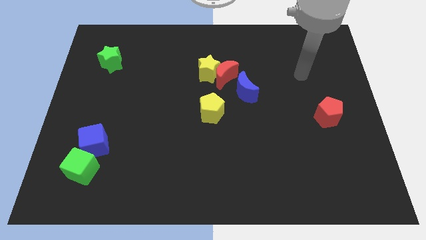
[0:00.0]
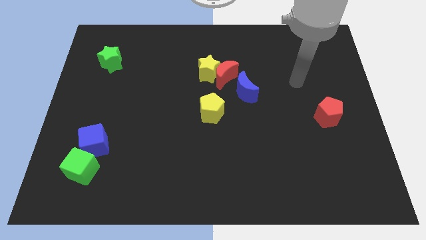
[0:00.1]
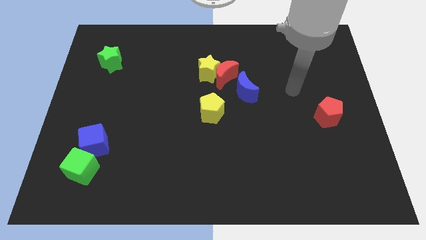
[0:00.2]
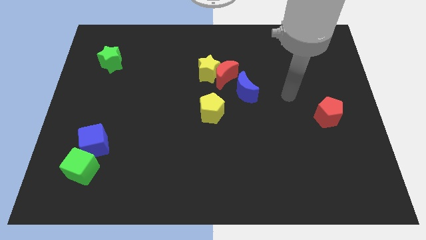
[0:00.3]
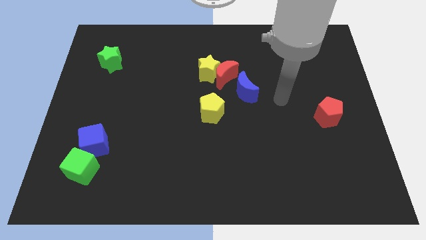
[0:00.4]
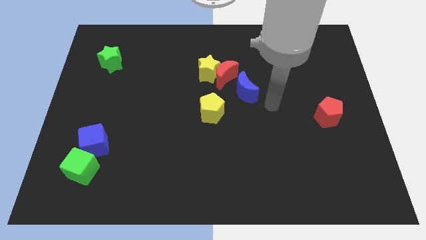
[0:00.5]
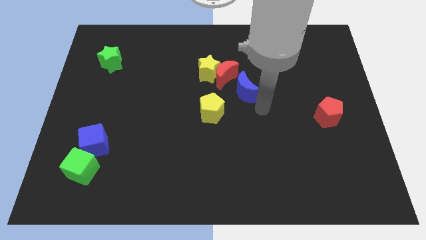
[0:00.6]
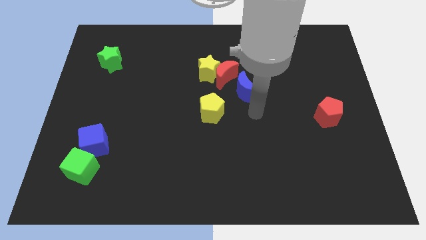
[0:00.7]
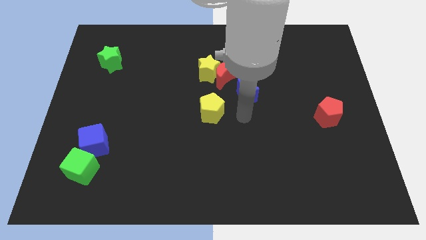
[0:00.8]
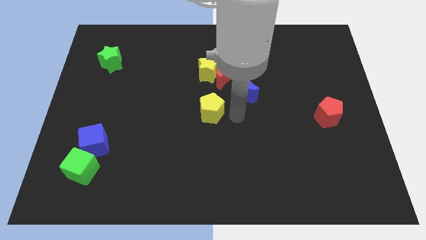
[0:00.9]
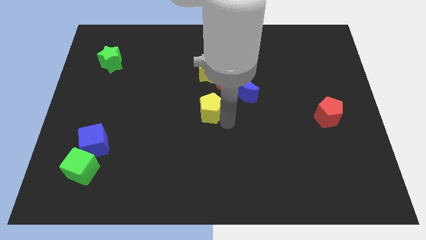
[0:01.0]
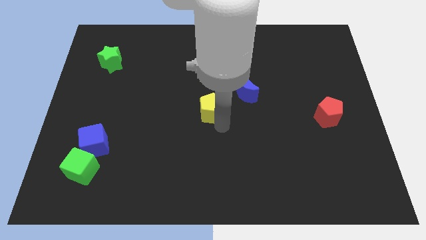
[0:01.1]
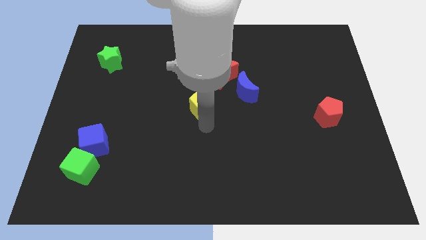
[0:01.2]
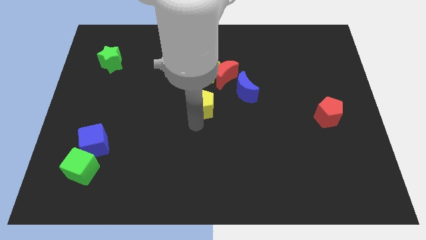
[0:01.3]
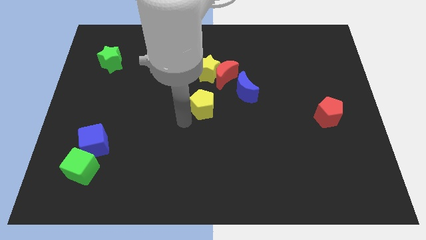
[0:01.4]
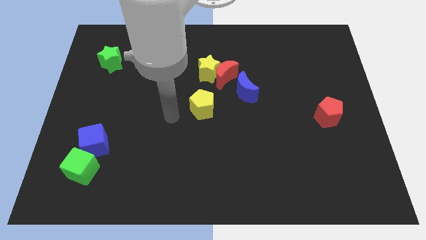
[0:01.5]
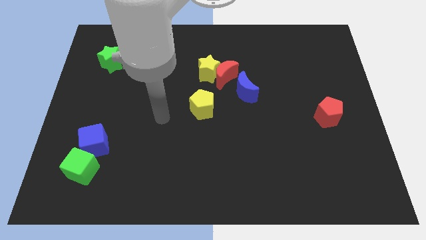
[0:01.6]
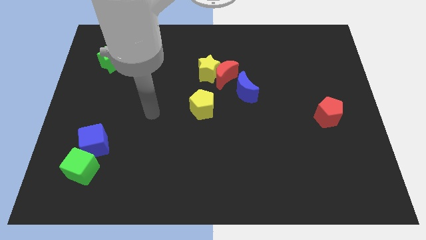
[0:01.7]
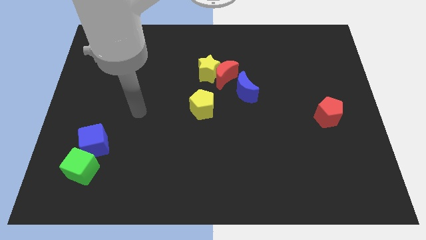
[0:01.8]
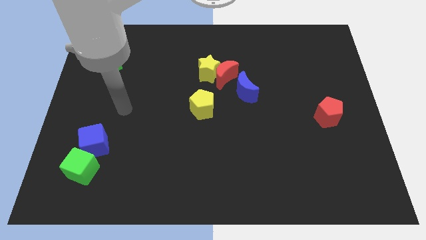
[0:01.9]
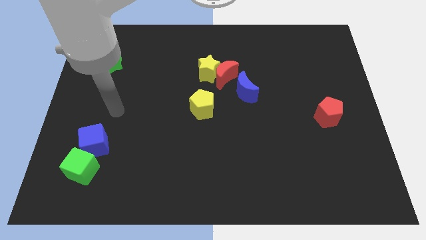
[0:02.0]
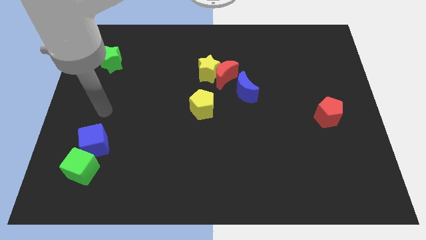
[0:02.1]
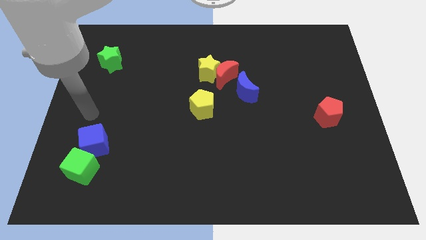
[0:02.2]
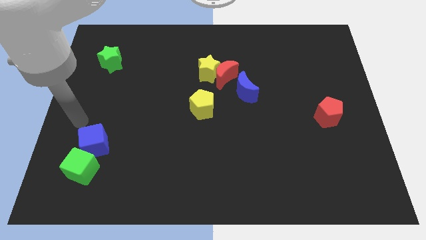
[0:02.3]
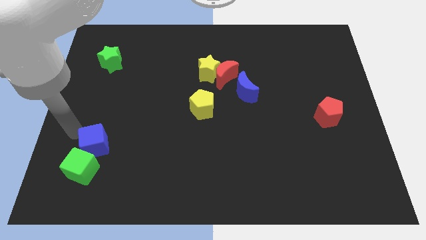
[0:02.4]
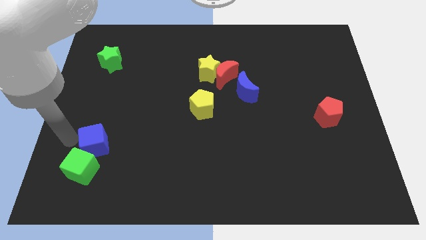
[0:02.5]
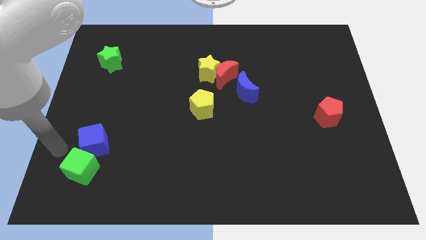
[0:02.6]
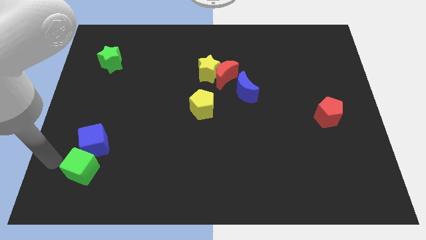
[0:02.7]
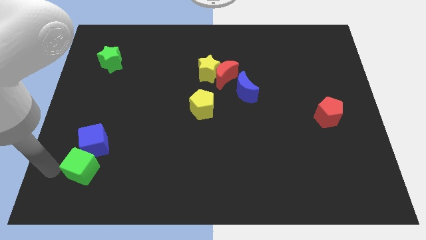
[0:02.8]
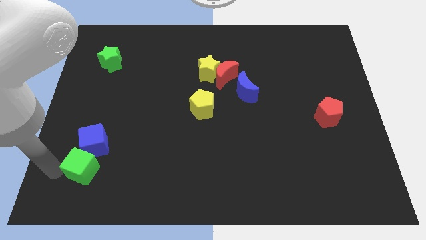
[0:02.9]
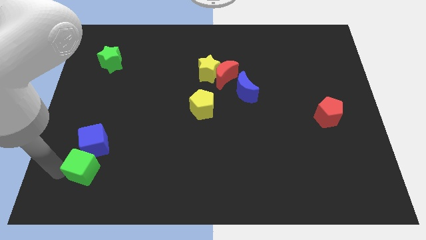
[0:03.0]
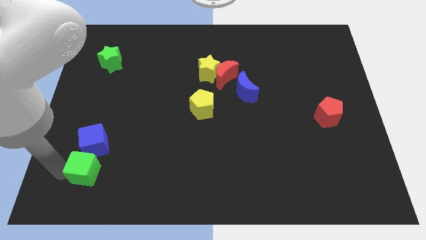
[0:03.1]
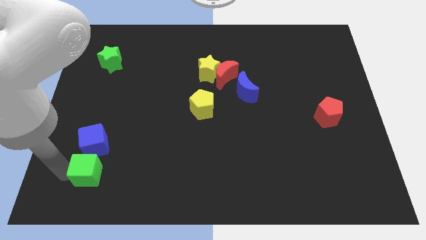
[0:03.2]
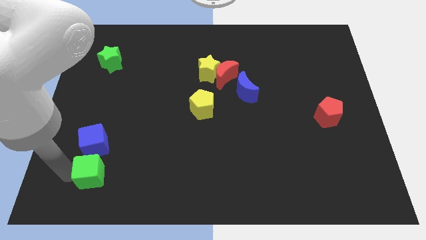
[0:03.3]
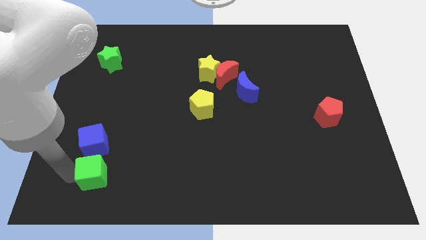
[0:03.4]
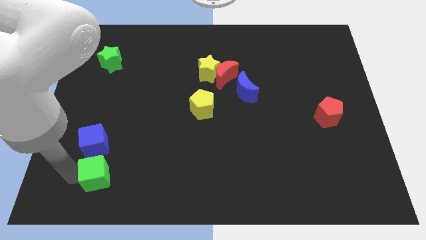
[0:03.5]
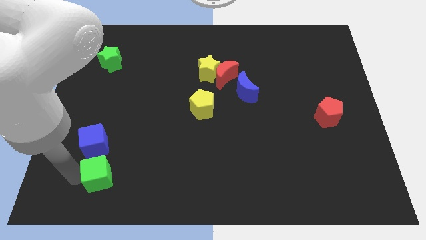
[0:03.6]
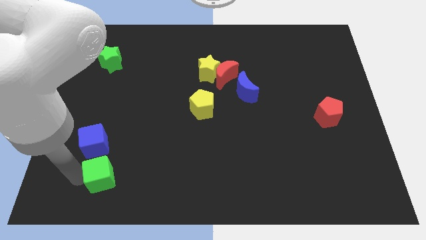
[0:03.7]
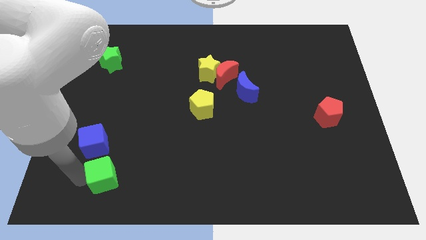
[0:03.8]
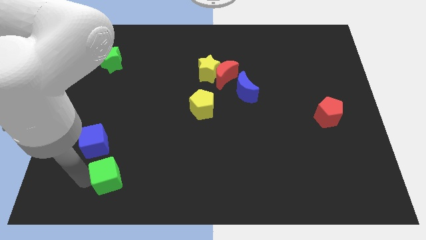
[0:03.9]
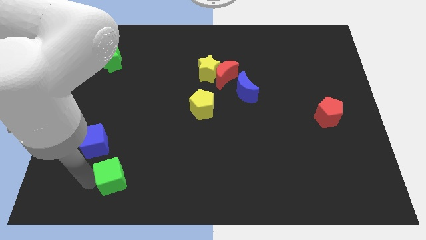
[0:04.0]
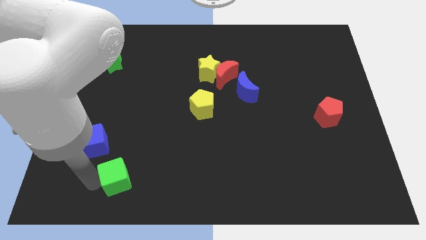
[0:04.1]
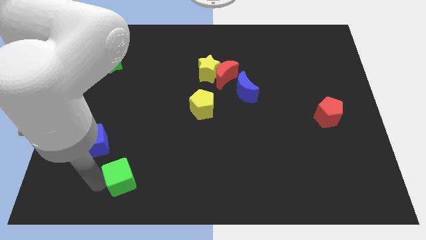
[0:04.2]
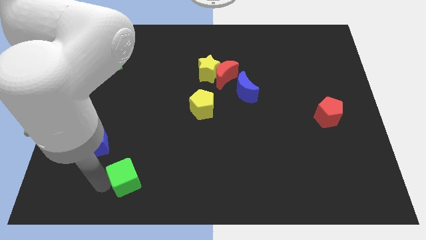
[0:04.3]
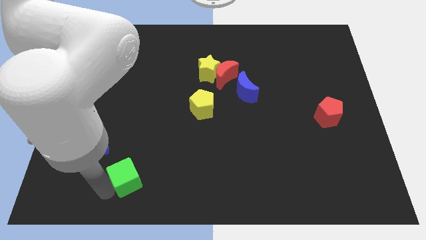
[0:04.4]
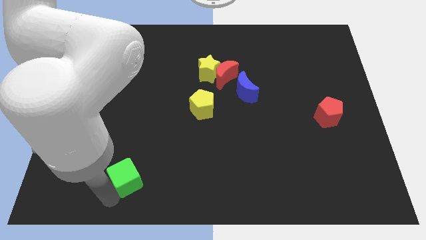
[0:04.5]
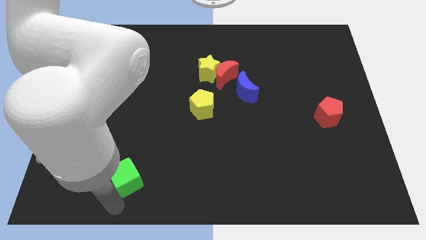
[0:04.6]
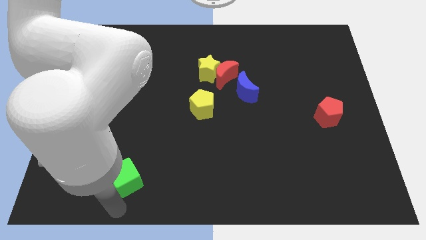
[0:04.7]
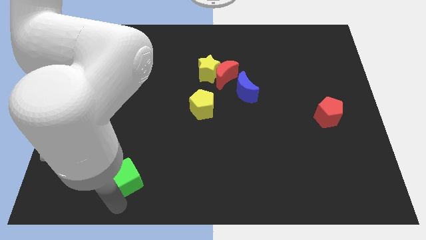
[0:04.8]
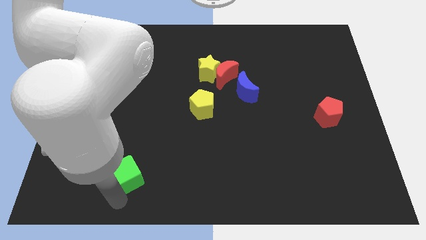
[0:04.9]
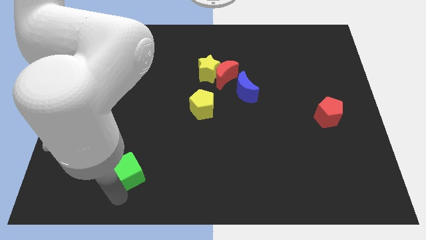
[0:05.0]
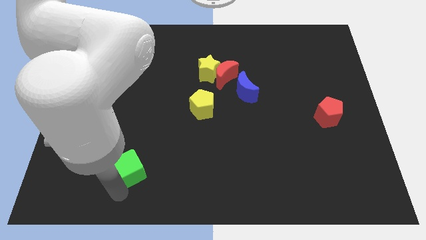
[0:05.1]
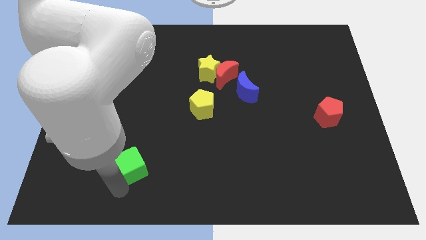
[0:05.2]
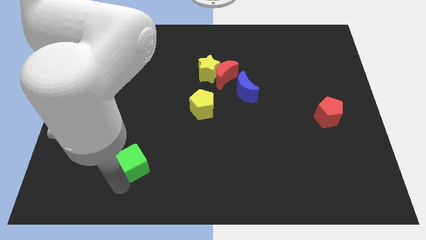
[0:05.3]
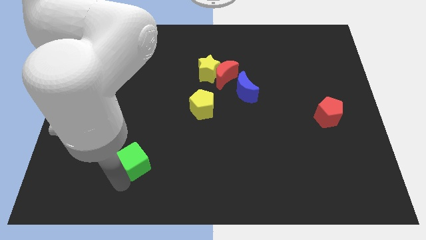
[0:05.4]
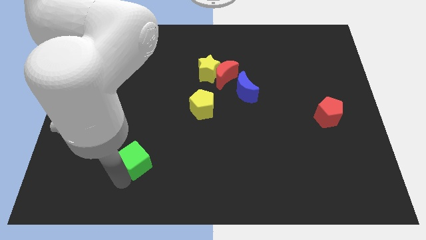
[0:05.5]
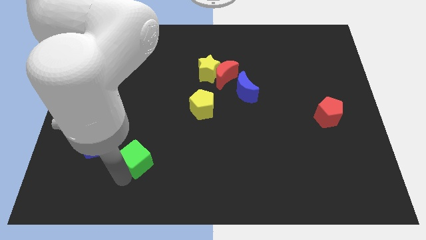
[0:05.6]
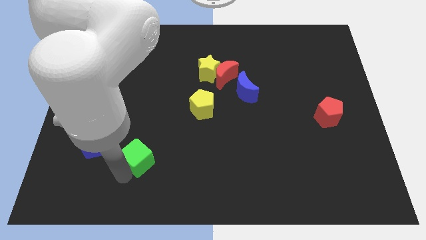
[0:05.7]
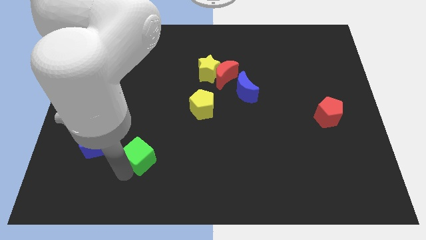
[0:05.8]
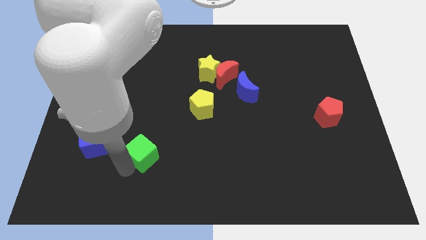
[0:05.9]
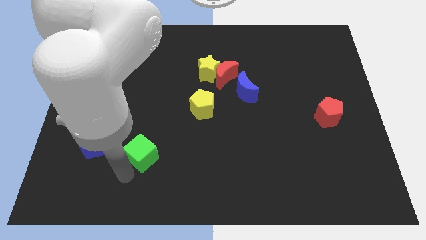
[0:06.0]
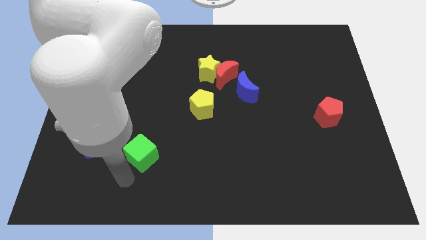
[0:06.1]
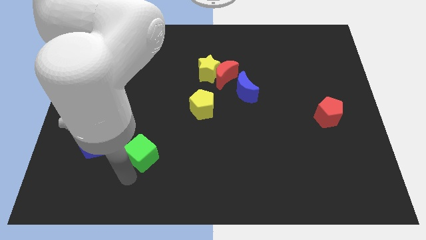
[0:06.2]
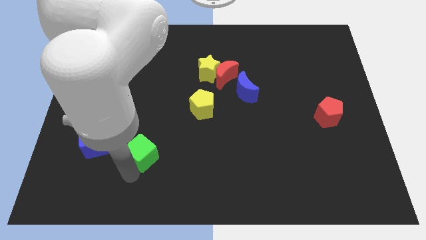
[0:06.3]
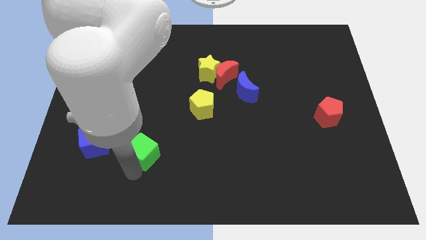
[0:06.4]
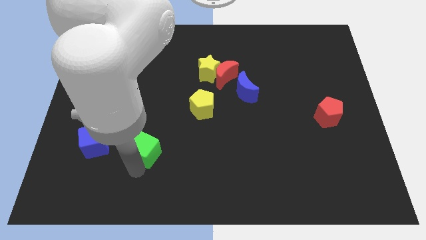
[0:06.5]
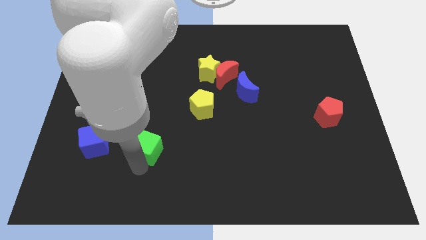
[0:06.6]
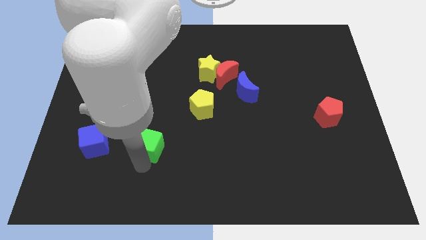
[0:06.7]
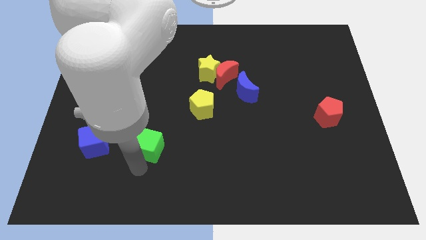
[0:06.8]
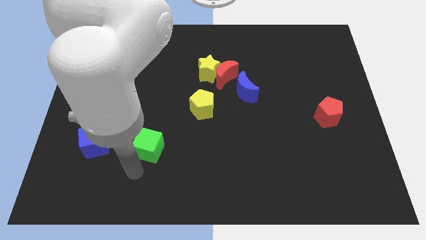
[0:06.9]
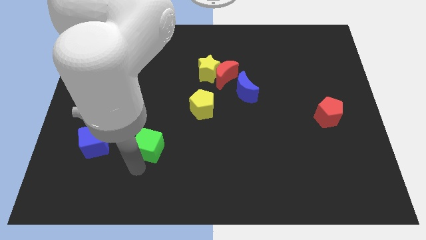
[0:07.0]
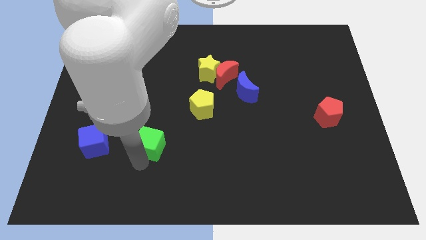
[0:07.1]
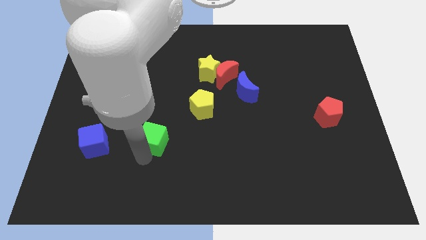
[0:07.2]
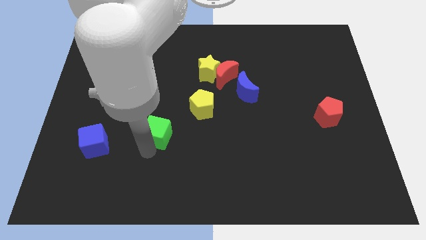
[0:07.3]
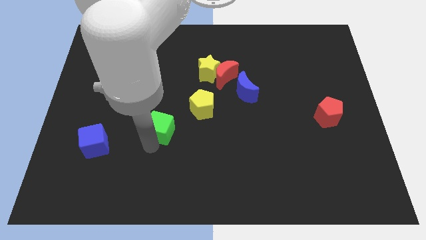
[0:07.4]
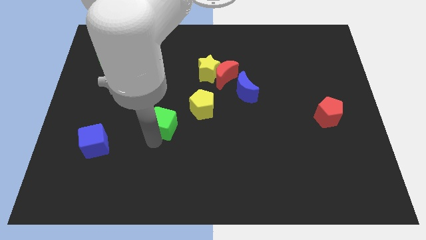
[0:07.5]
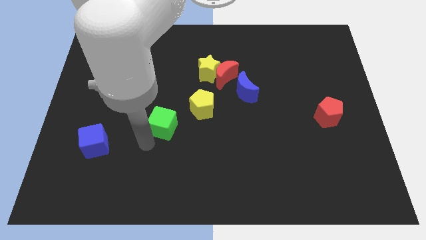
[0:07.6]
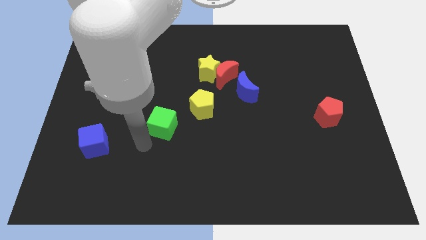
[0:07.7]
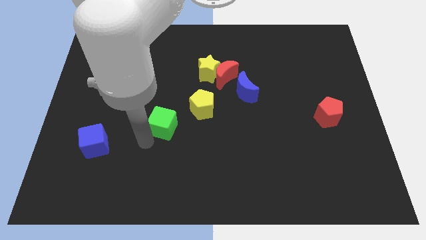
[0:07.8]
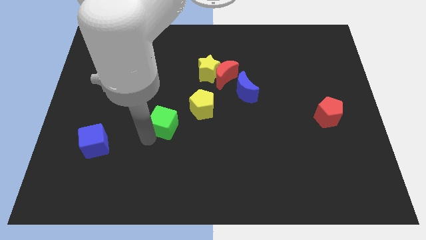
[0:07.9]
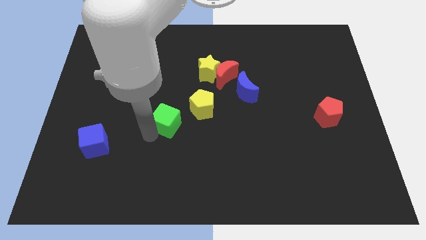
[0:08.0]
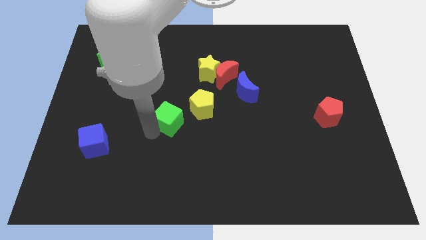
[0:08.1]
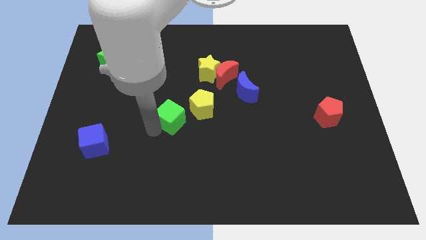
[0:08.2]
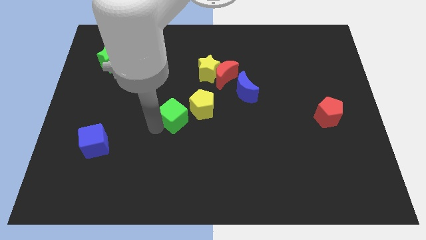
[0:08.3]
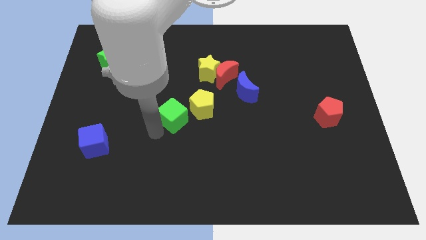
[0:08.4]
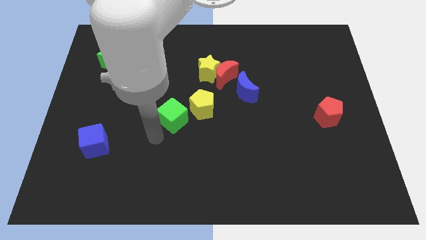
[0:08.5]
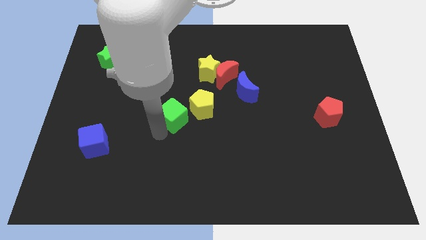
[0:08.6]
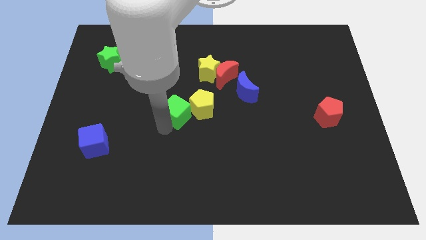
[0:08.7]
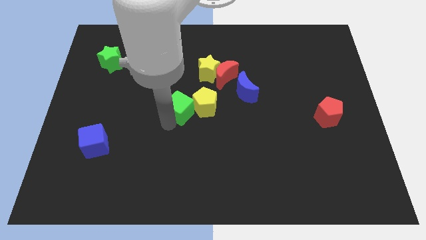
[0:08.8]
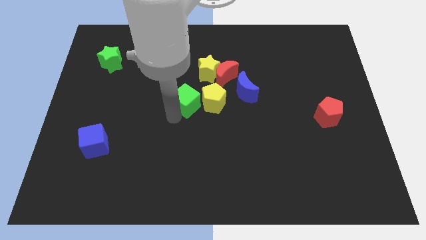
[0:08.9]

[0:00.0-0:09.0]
slide the green cube to the left side of the blue moon
